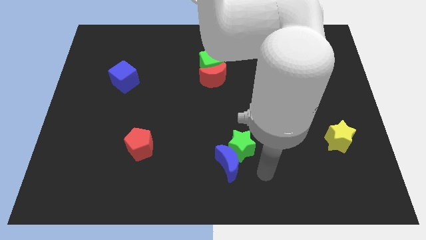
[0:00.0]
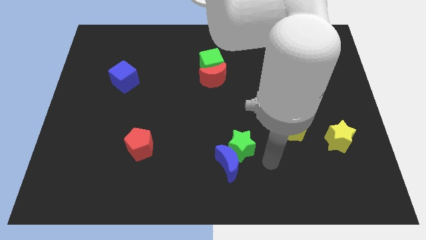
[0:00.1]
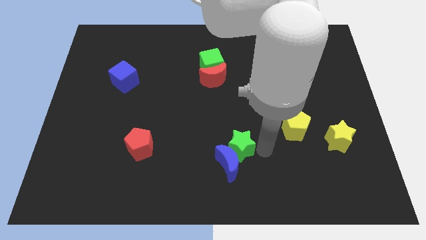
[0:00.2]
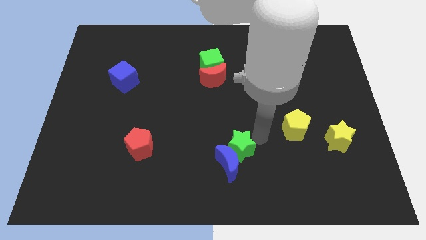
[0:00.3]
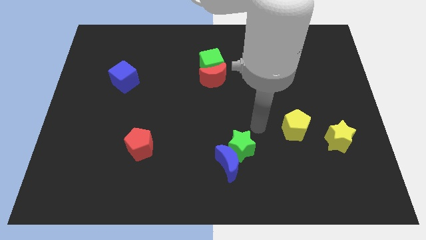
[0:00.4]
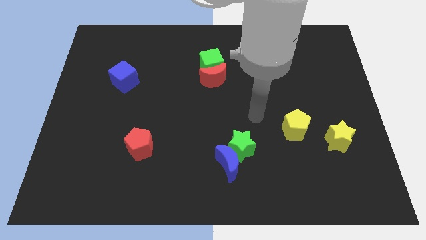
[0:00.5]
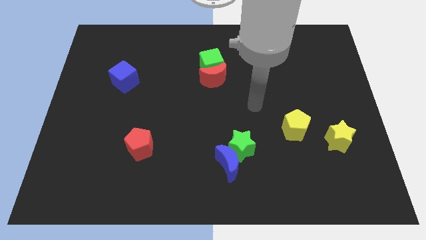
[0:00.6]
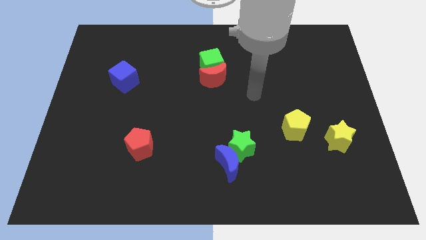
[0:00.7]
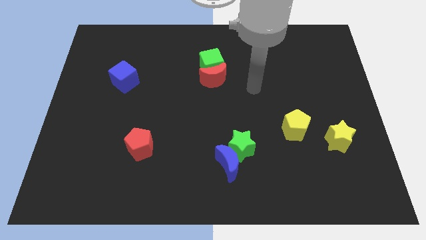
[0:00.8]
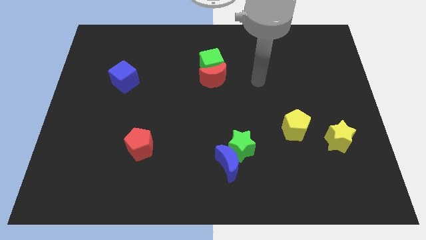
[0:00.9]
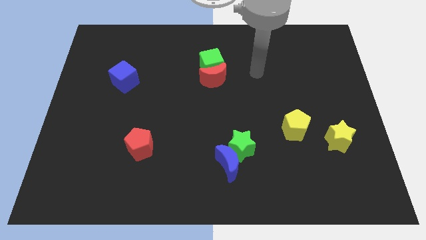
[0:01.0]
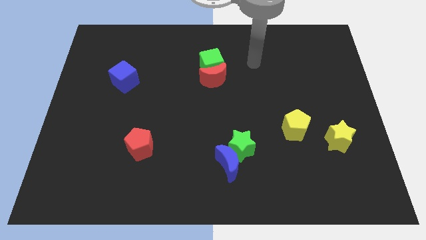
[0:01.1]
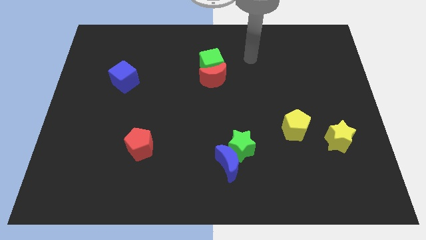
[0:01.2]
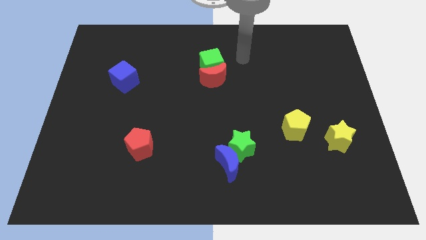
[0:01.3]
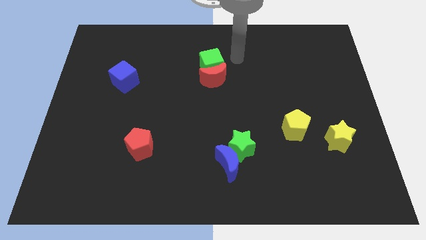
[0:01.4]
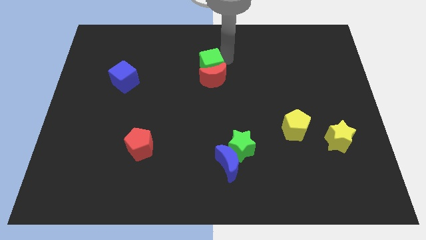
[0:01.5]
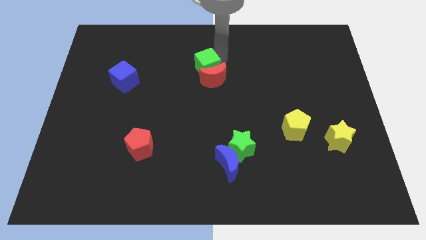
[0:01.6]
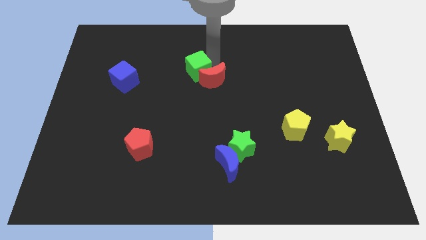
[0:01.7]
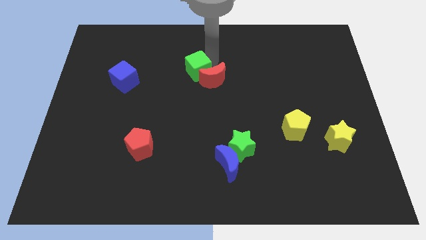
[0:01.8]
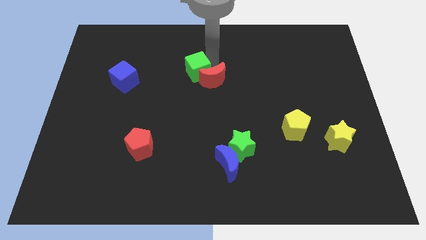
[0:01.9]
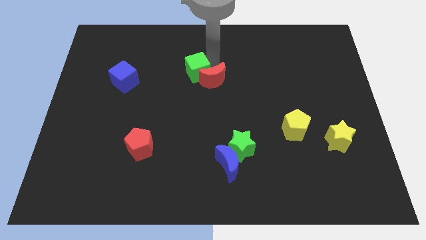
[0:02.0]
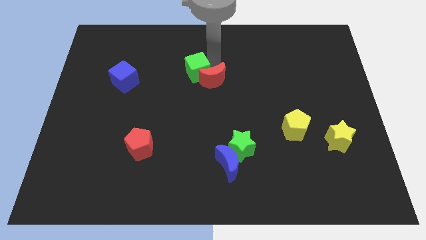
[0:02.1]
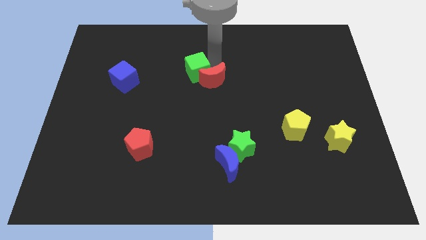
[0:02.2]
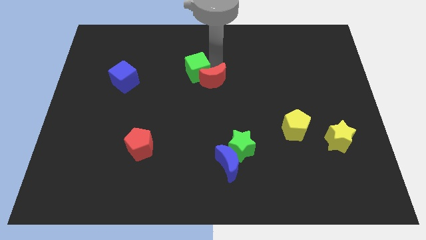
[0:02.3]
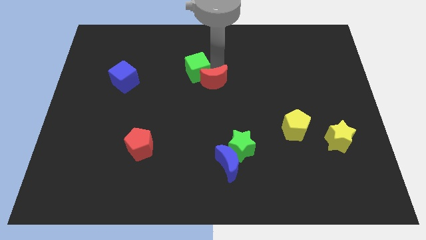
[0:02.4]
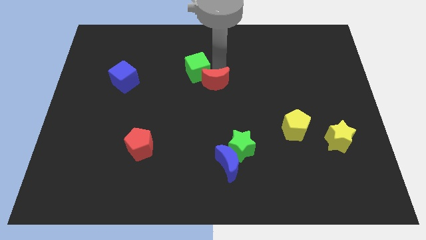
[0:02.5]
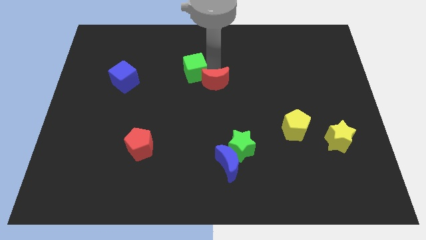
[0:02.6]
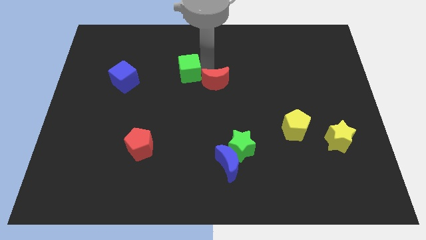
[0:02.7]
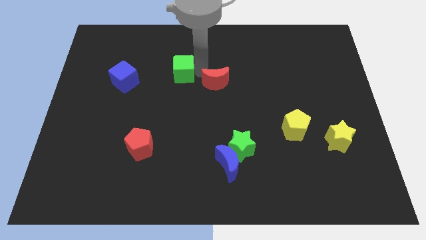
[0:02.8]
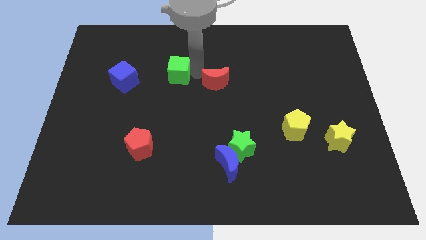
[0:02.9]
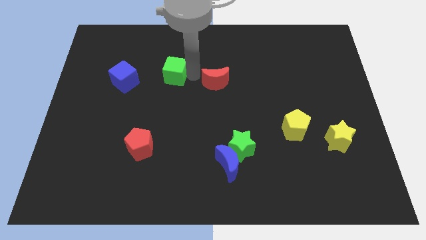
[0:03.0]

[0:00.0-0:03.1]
separate the red moon from the green cube

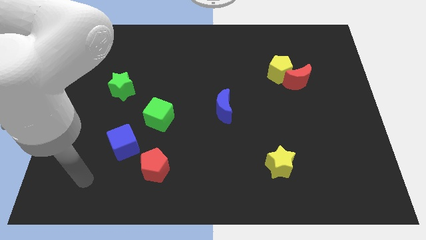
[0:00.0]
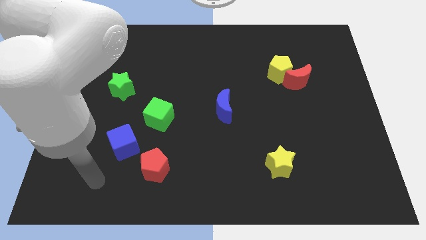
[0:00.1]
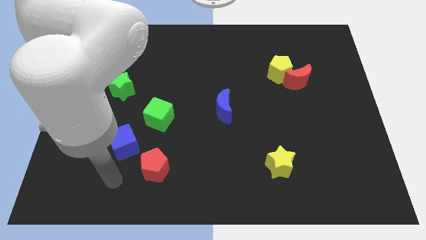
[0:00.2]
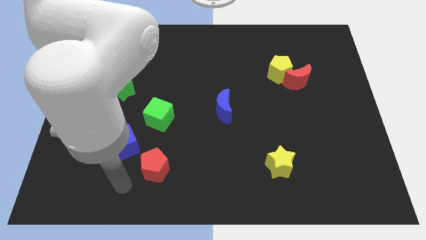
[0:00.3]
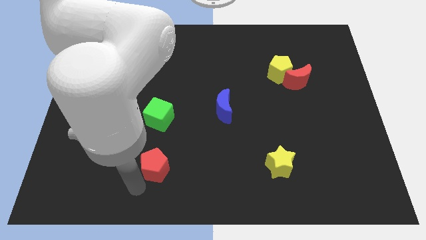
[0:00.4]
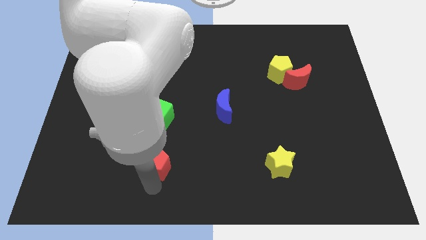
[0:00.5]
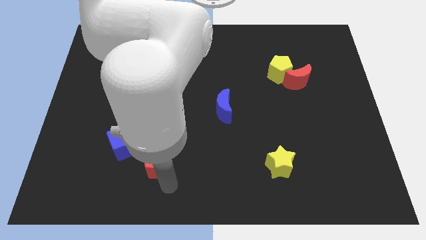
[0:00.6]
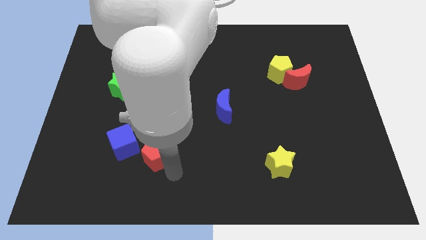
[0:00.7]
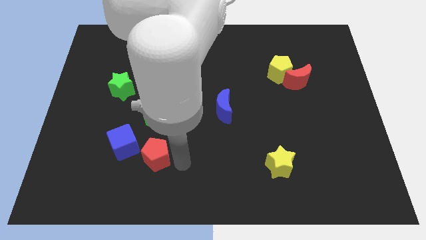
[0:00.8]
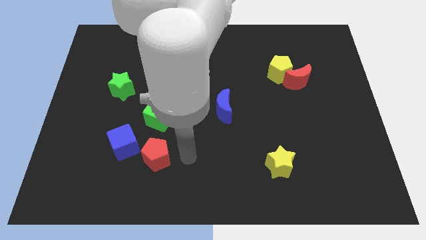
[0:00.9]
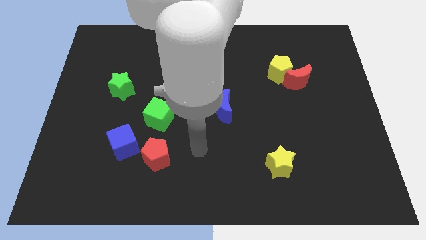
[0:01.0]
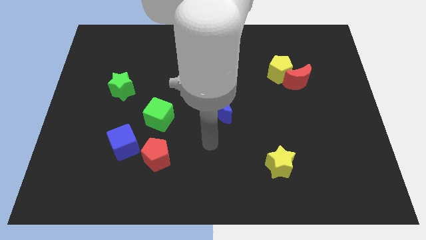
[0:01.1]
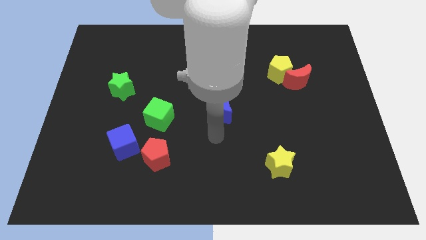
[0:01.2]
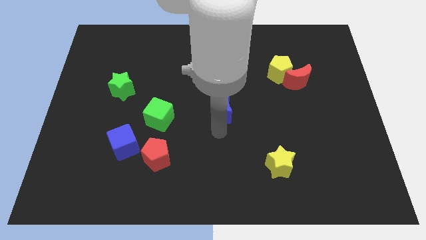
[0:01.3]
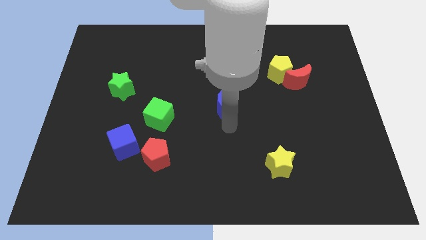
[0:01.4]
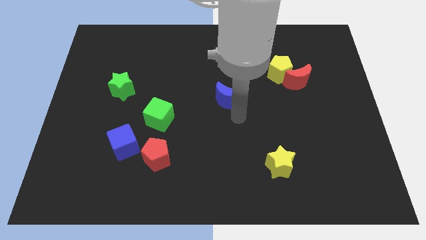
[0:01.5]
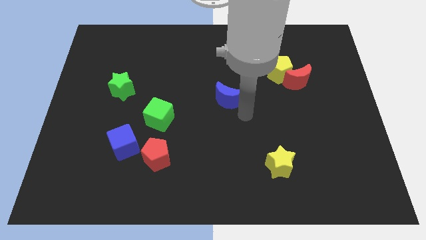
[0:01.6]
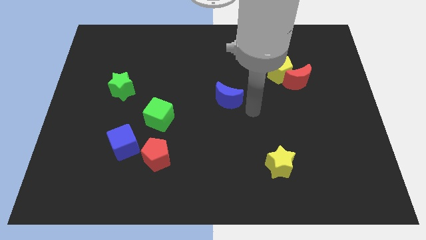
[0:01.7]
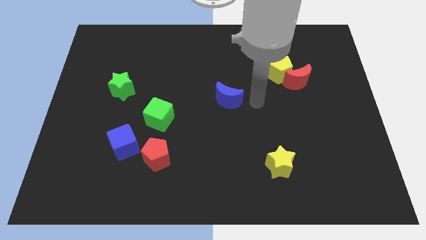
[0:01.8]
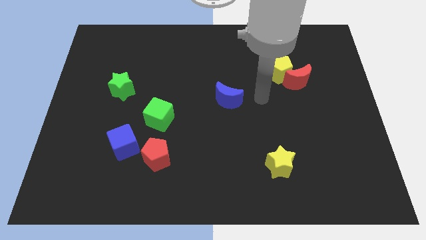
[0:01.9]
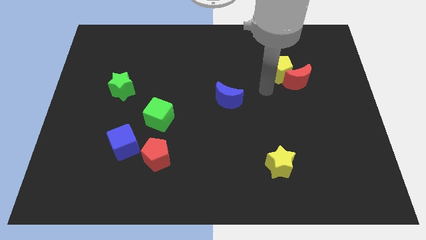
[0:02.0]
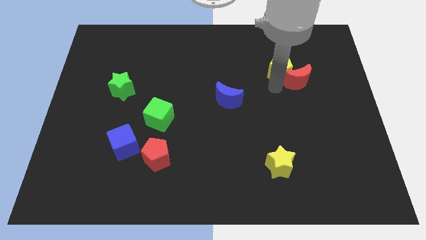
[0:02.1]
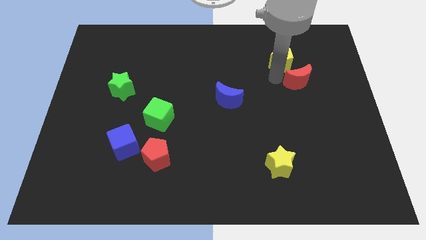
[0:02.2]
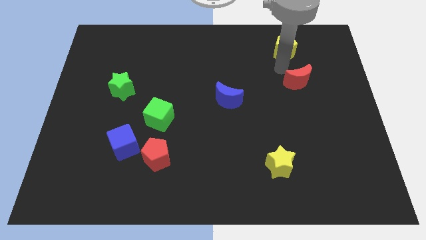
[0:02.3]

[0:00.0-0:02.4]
pull the red moon apart from the yellow pentagon

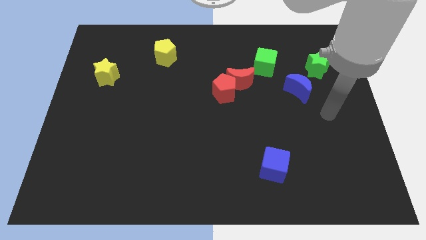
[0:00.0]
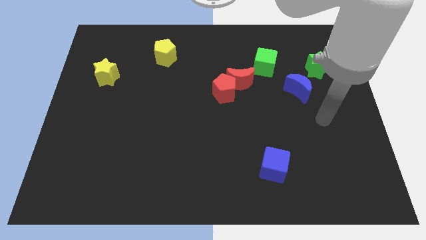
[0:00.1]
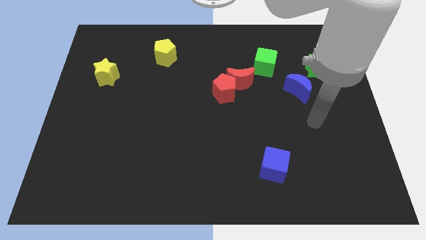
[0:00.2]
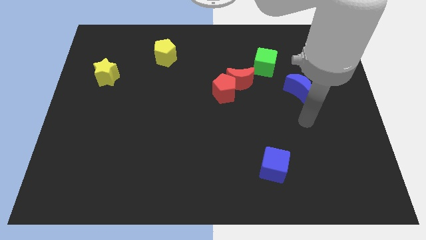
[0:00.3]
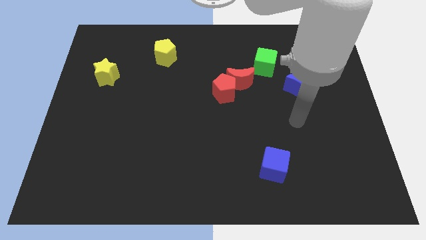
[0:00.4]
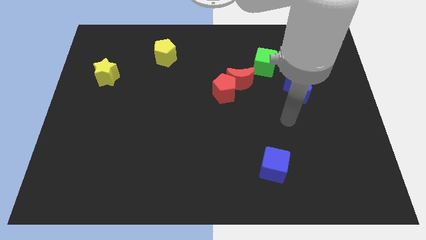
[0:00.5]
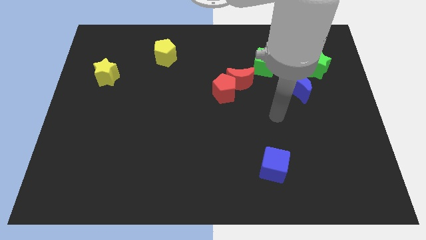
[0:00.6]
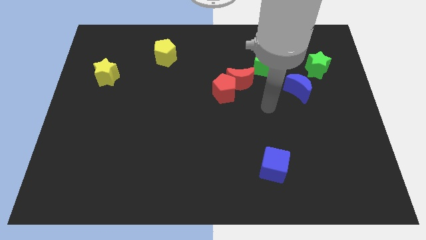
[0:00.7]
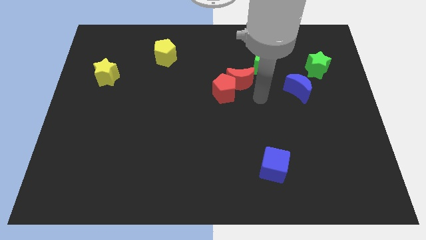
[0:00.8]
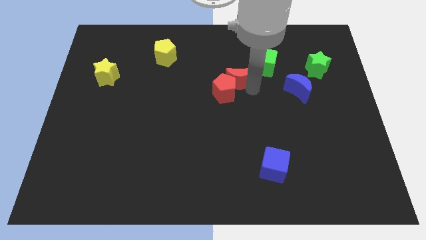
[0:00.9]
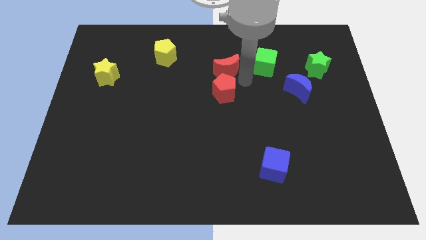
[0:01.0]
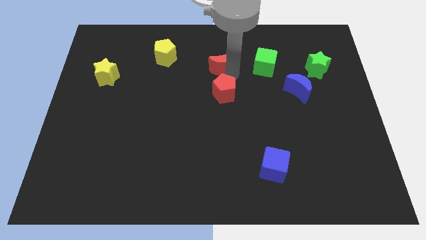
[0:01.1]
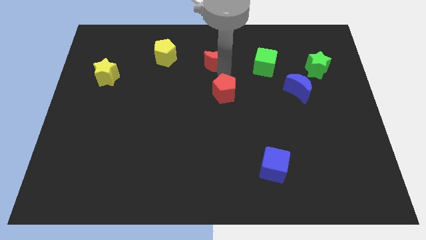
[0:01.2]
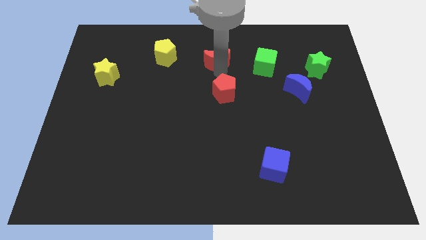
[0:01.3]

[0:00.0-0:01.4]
separate the red pentagon from the red moon

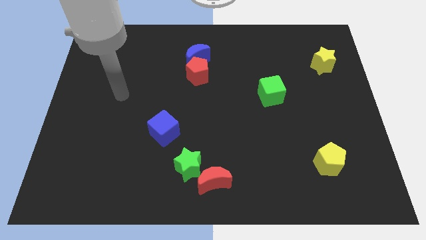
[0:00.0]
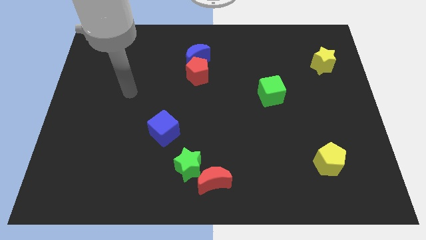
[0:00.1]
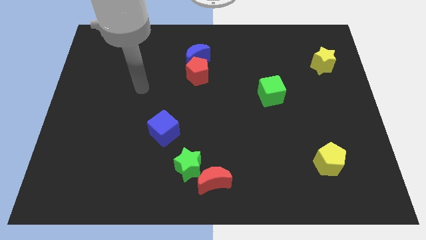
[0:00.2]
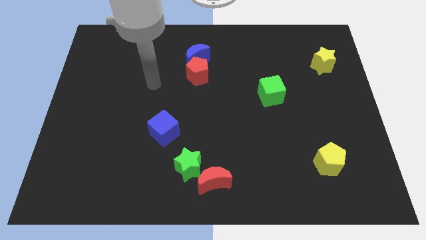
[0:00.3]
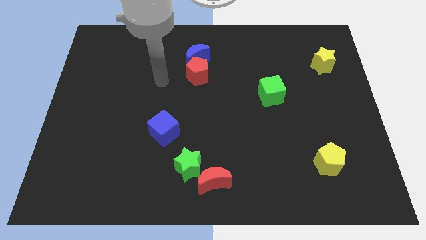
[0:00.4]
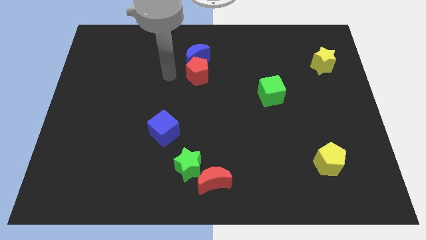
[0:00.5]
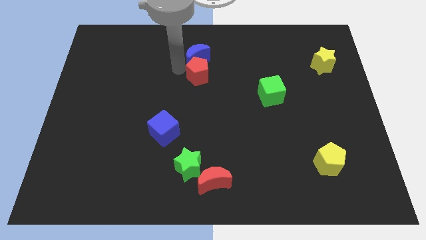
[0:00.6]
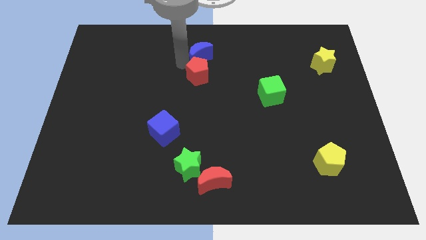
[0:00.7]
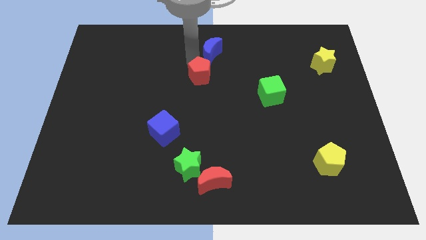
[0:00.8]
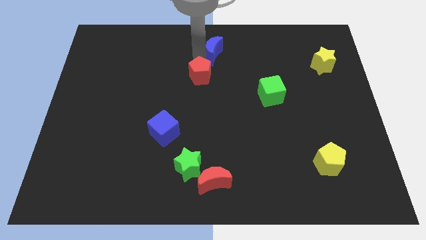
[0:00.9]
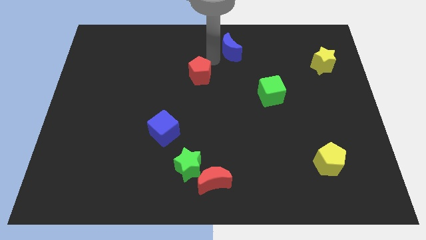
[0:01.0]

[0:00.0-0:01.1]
separate the red pentagon from the blue moon

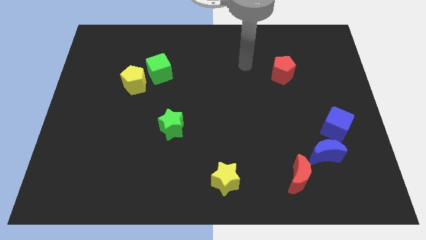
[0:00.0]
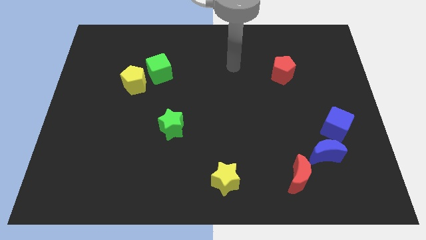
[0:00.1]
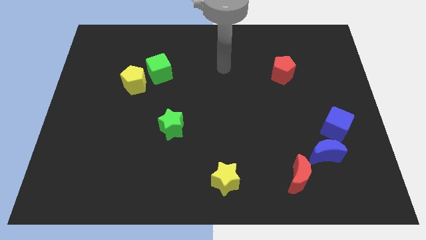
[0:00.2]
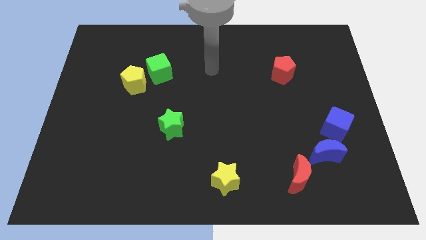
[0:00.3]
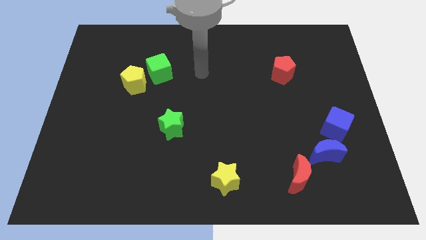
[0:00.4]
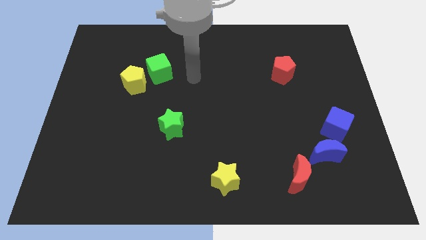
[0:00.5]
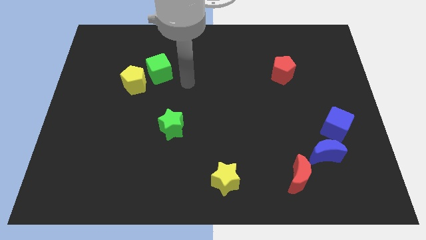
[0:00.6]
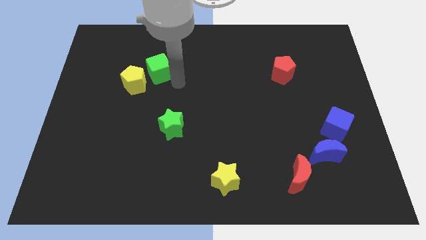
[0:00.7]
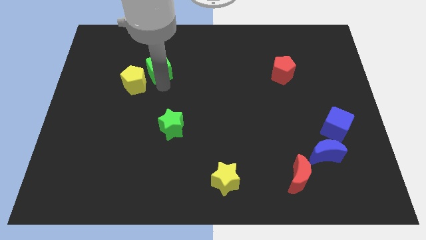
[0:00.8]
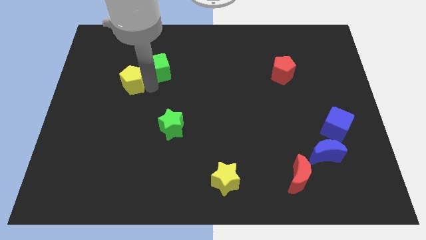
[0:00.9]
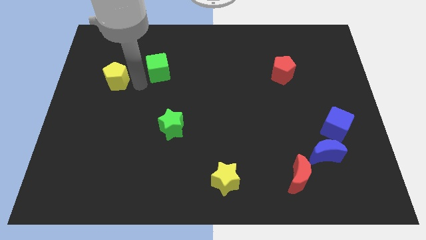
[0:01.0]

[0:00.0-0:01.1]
move the green cube away from the yellow pentagon

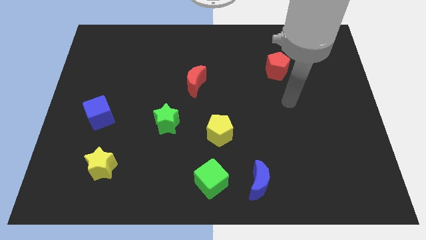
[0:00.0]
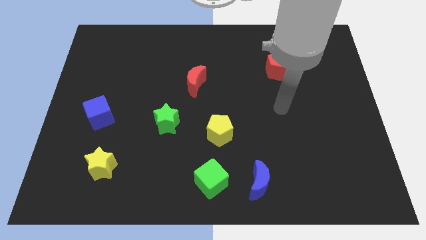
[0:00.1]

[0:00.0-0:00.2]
pull the blue moon apart from the green cube
